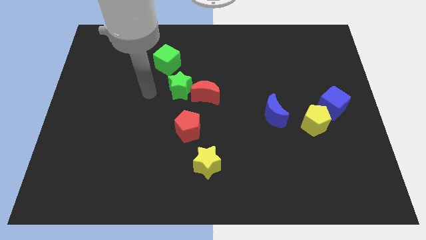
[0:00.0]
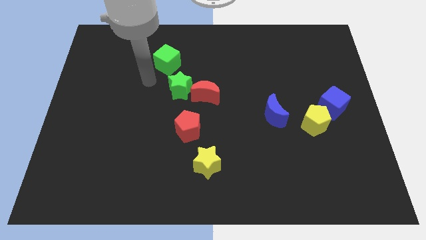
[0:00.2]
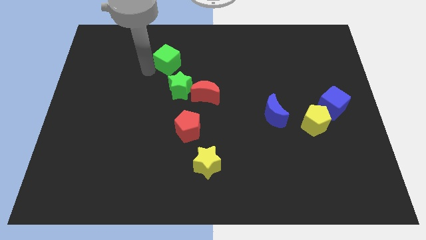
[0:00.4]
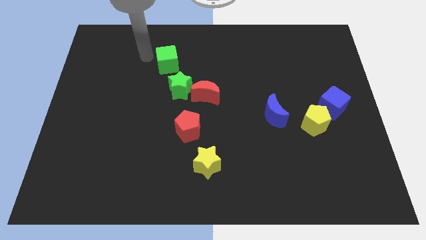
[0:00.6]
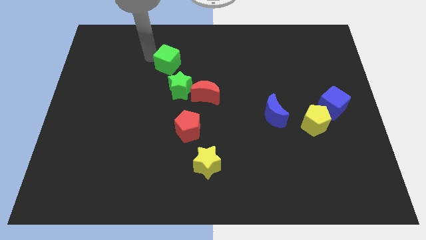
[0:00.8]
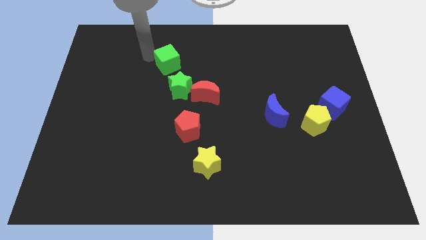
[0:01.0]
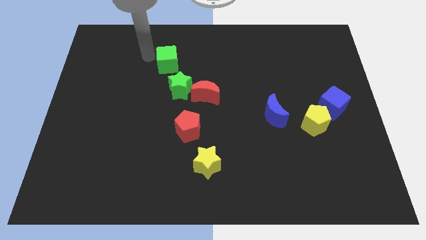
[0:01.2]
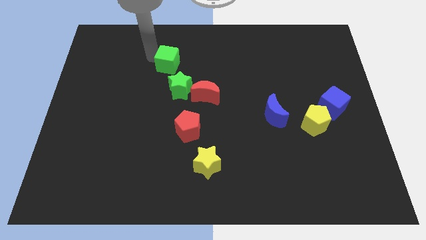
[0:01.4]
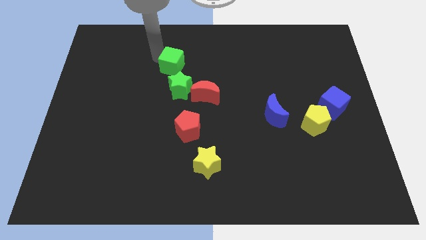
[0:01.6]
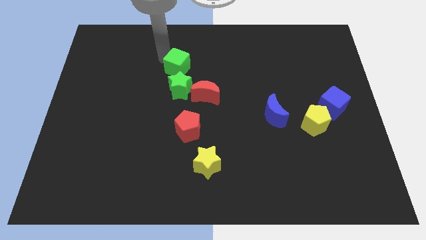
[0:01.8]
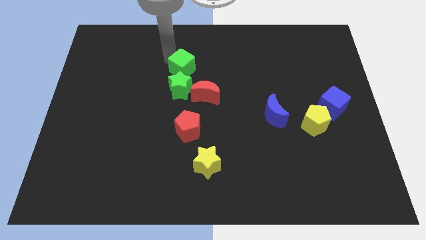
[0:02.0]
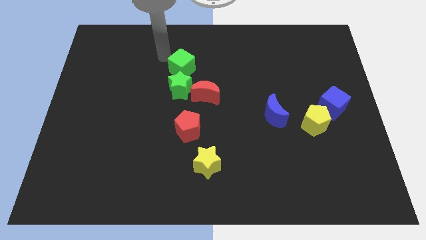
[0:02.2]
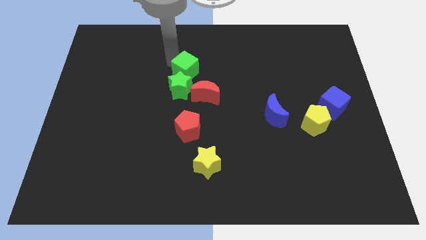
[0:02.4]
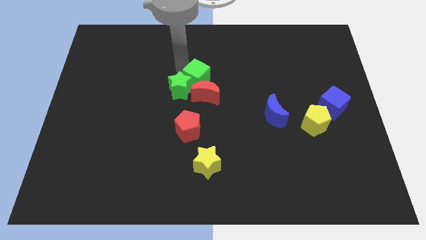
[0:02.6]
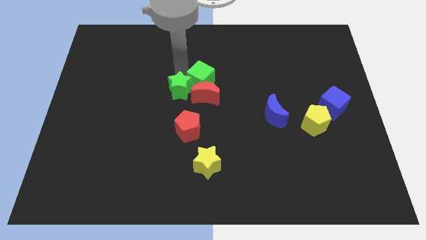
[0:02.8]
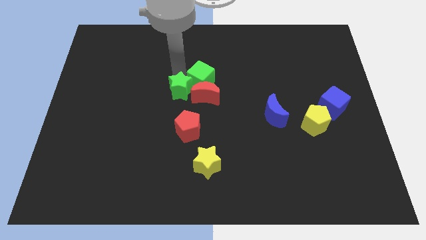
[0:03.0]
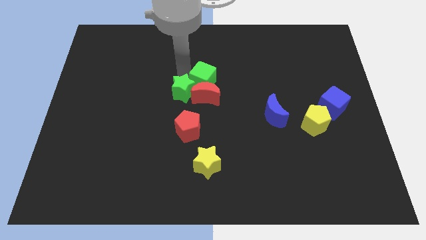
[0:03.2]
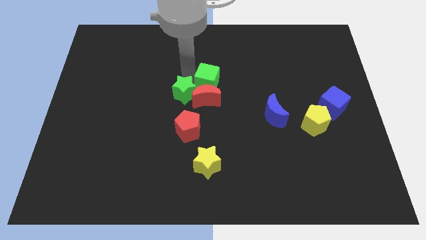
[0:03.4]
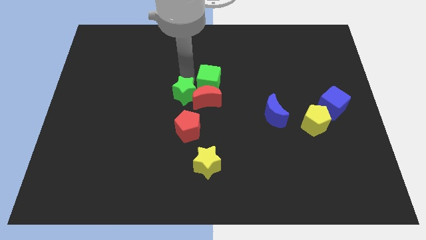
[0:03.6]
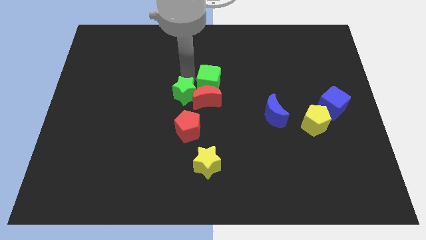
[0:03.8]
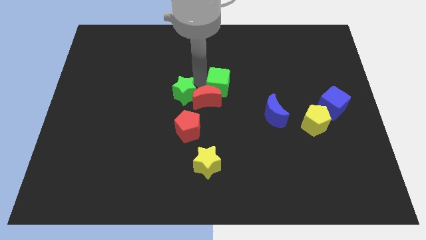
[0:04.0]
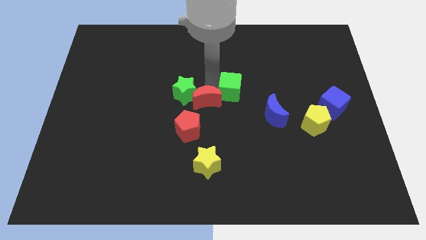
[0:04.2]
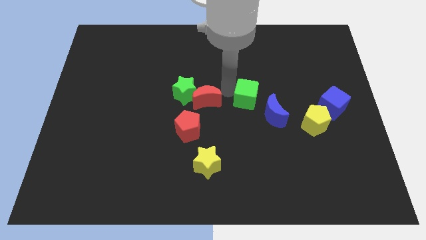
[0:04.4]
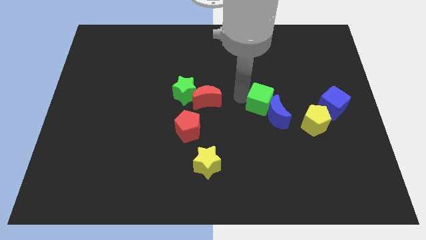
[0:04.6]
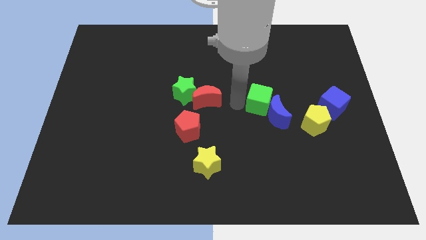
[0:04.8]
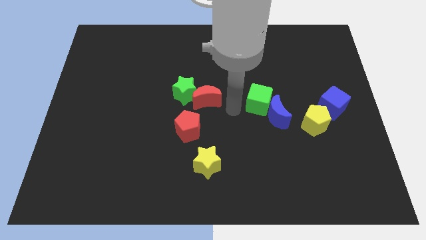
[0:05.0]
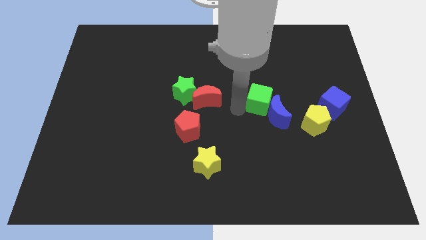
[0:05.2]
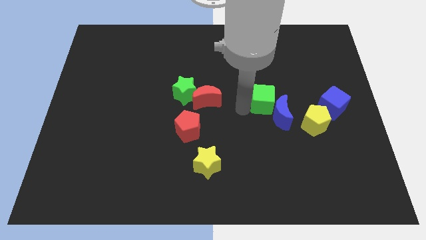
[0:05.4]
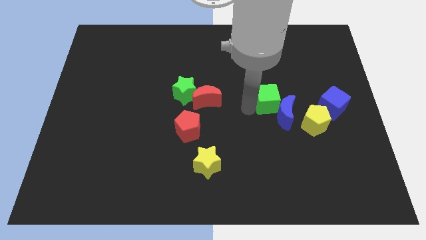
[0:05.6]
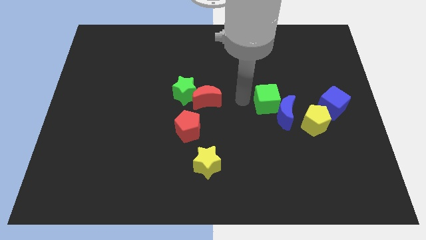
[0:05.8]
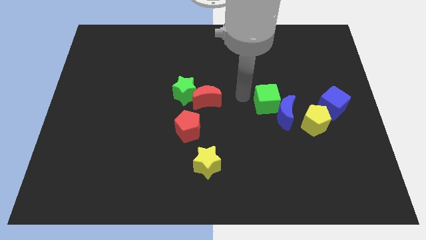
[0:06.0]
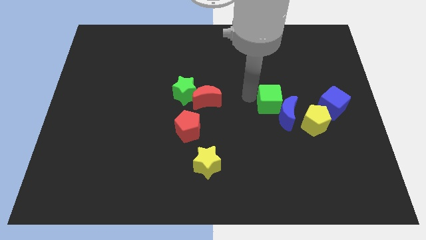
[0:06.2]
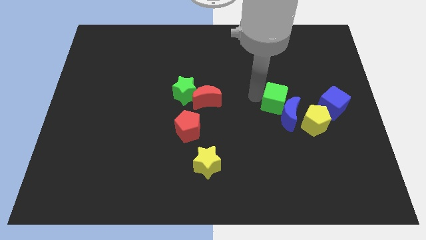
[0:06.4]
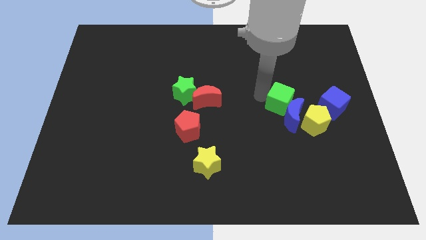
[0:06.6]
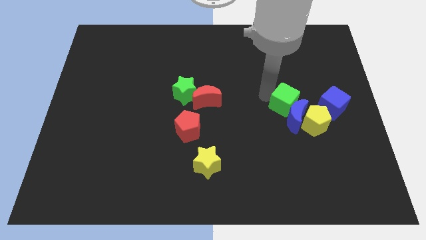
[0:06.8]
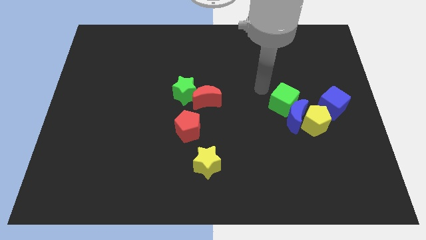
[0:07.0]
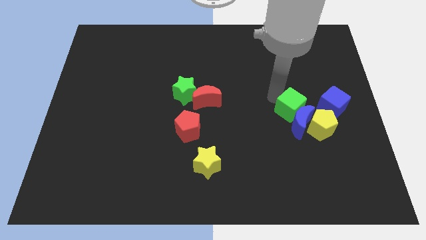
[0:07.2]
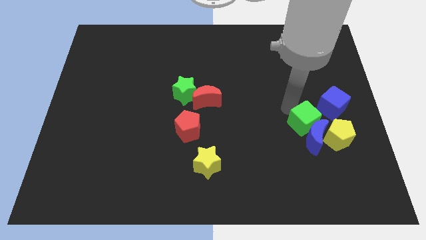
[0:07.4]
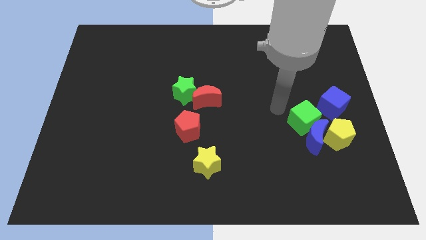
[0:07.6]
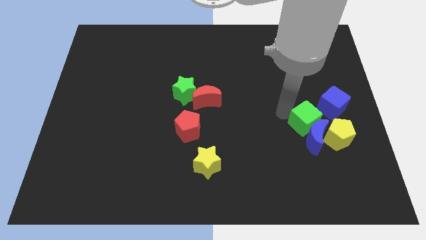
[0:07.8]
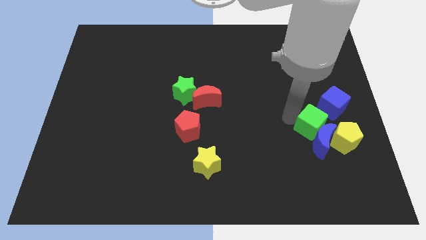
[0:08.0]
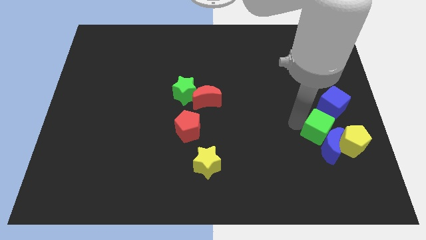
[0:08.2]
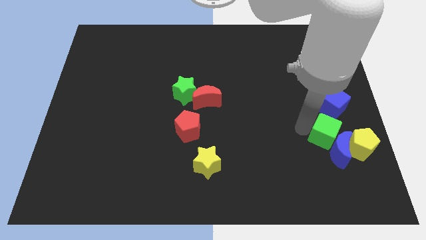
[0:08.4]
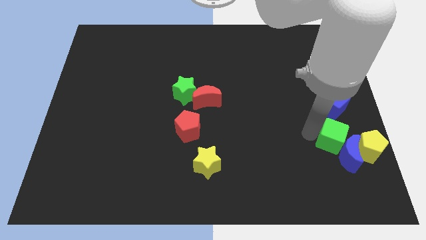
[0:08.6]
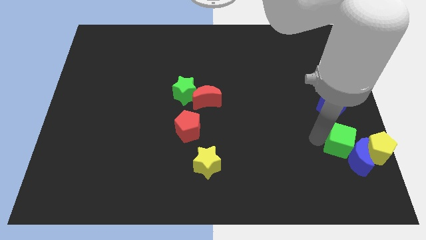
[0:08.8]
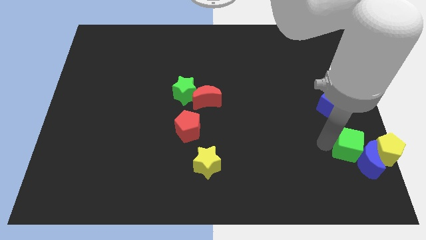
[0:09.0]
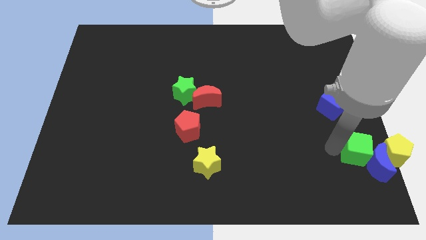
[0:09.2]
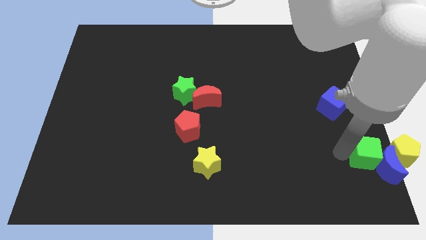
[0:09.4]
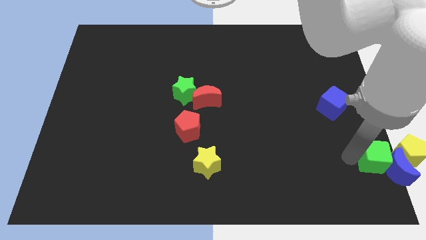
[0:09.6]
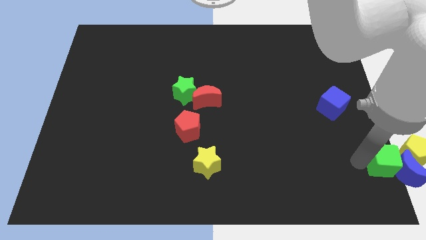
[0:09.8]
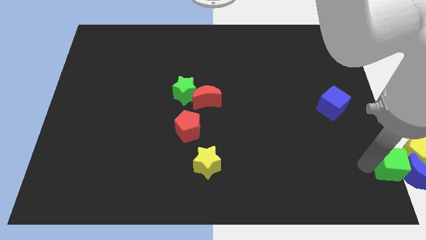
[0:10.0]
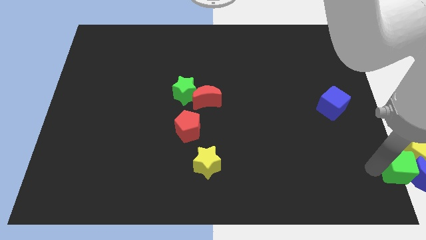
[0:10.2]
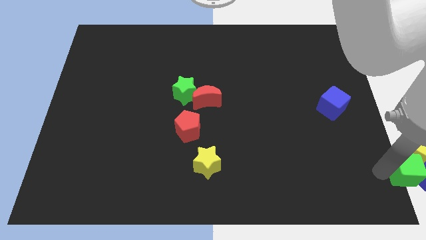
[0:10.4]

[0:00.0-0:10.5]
push the green cube close to the yellow pentagon

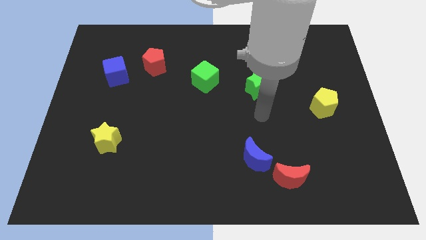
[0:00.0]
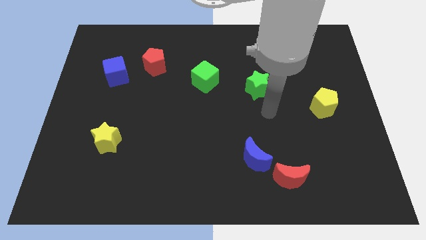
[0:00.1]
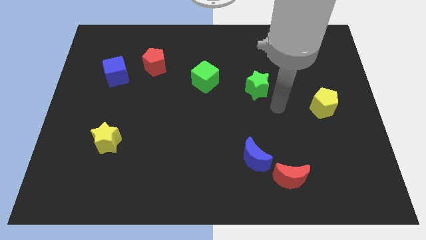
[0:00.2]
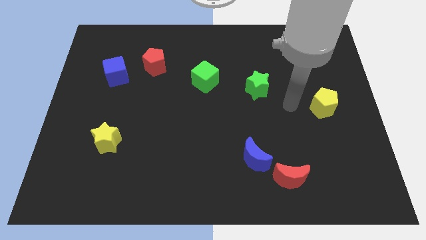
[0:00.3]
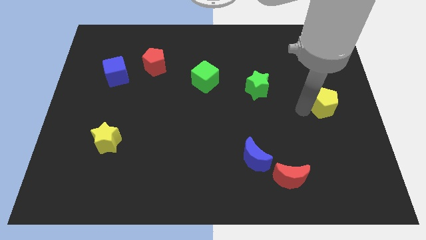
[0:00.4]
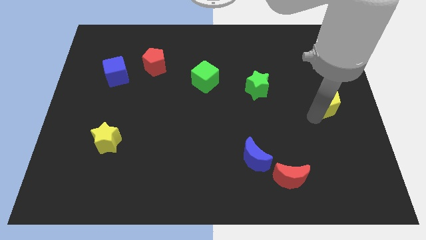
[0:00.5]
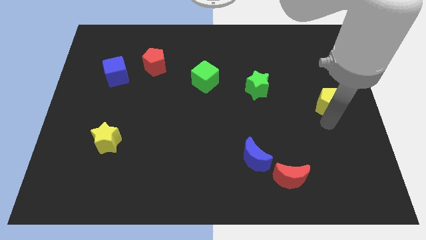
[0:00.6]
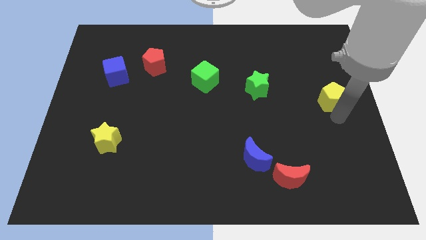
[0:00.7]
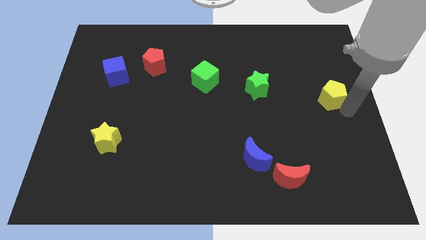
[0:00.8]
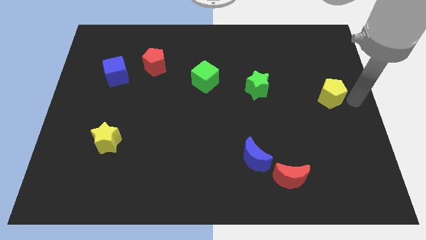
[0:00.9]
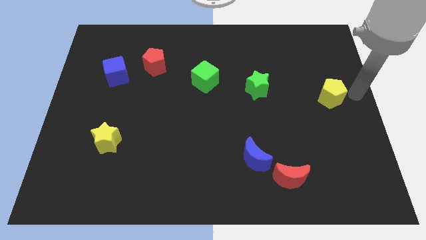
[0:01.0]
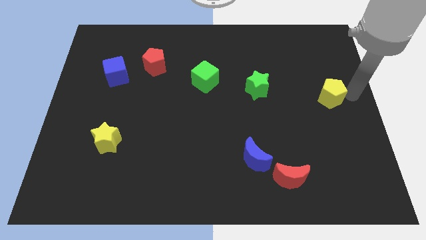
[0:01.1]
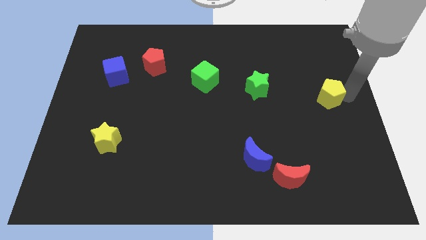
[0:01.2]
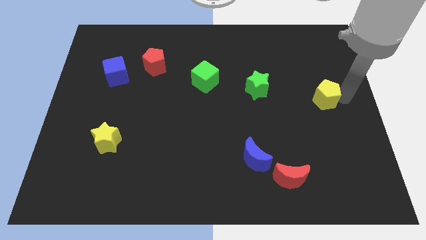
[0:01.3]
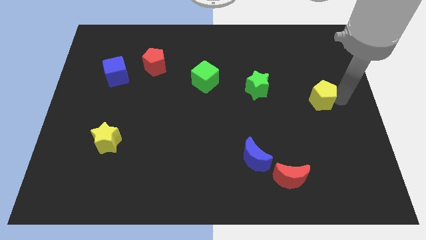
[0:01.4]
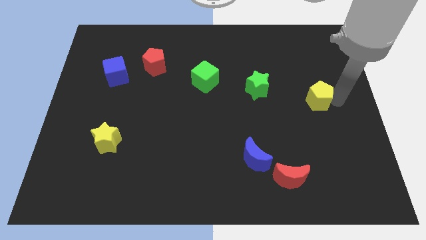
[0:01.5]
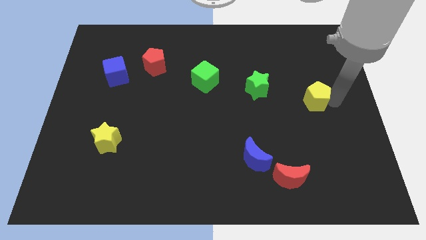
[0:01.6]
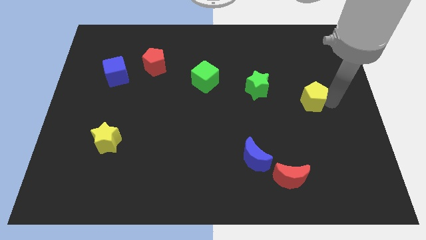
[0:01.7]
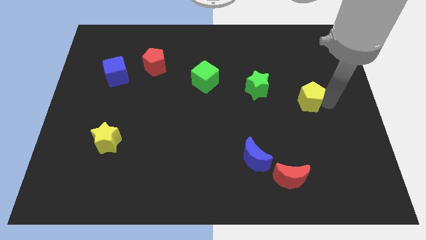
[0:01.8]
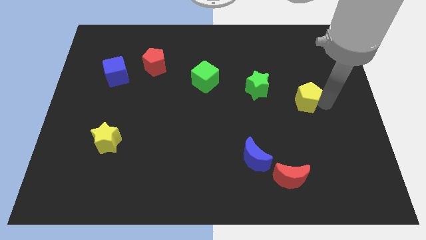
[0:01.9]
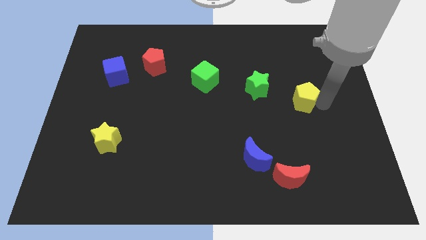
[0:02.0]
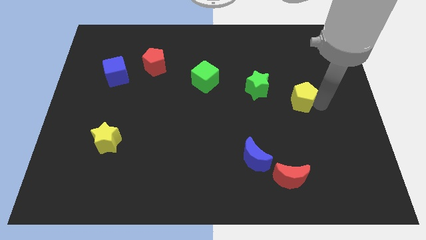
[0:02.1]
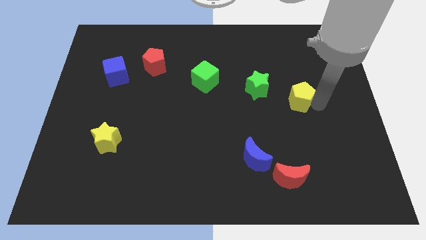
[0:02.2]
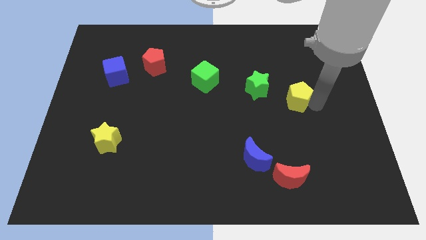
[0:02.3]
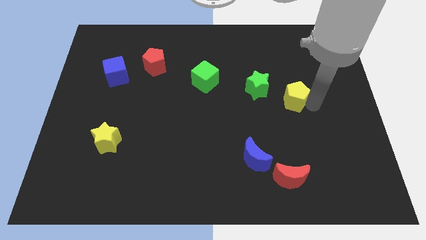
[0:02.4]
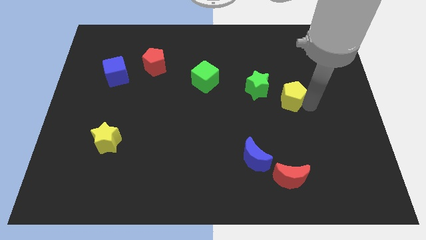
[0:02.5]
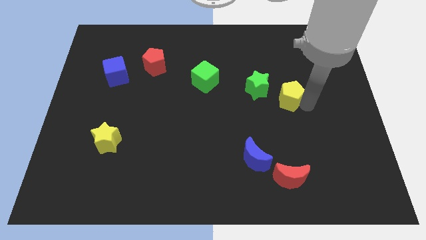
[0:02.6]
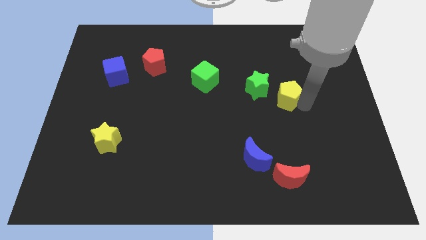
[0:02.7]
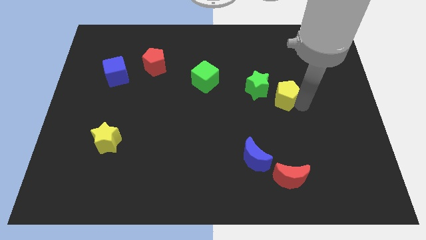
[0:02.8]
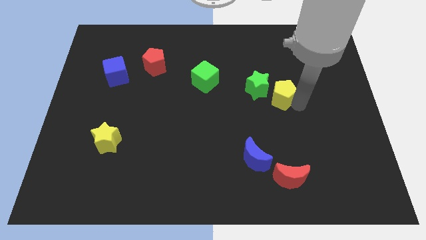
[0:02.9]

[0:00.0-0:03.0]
slide the yellow pentagon next to the green star
